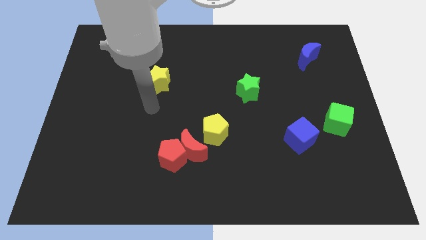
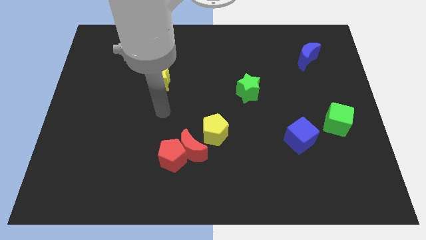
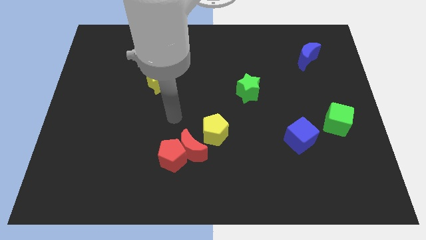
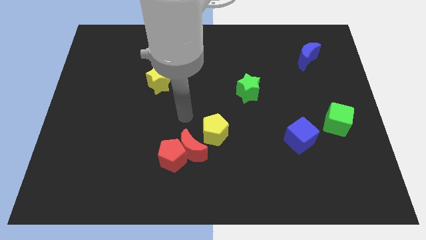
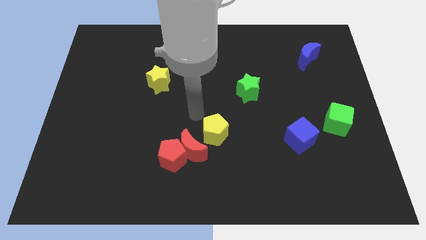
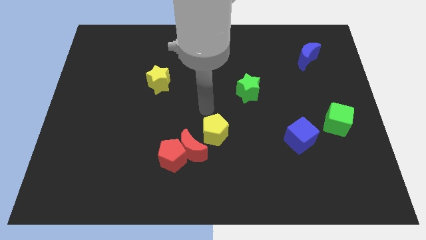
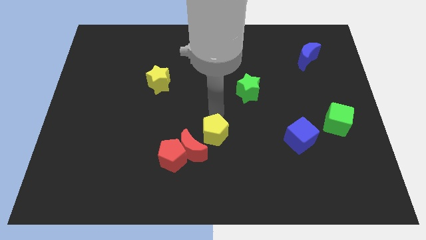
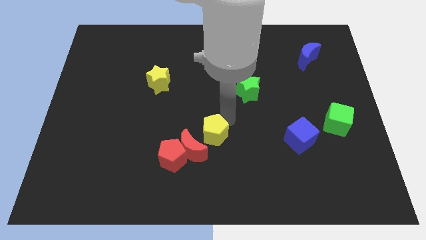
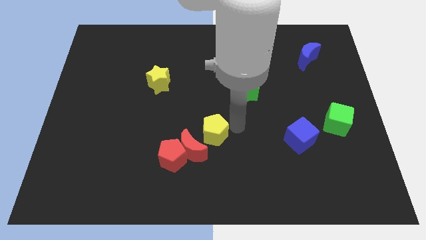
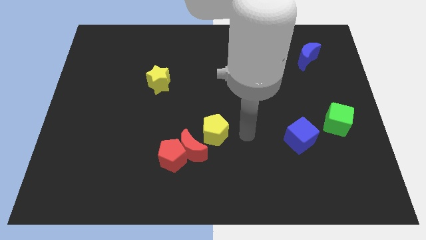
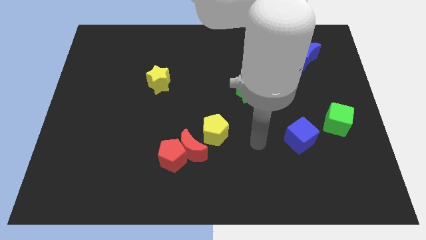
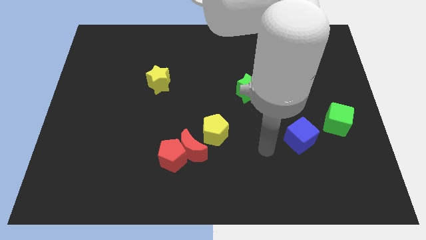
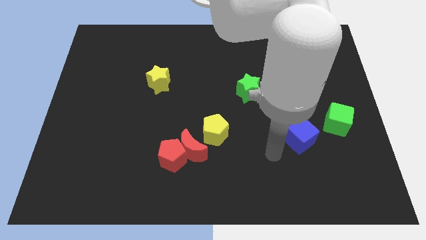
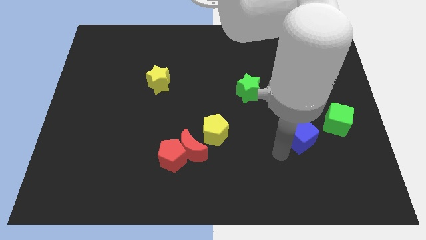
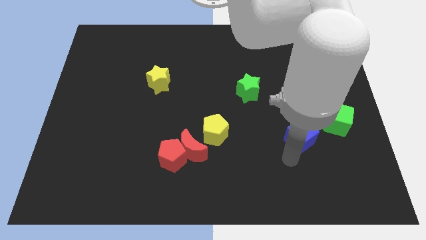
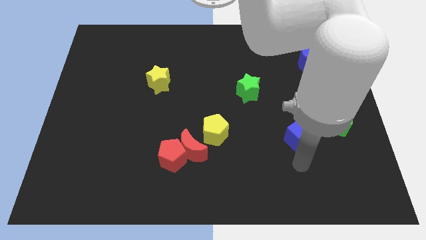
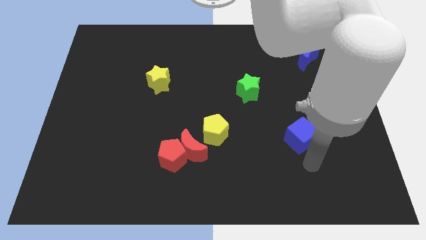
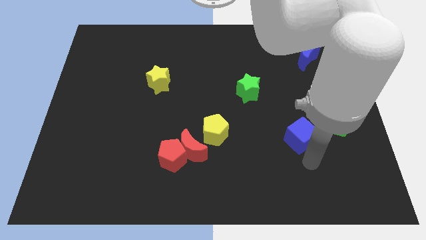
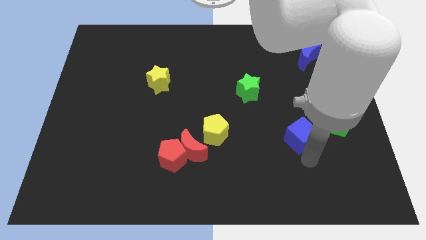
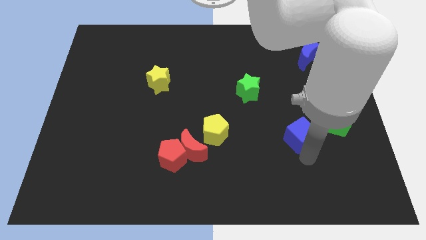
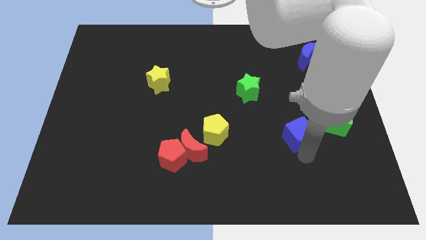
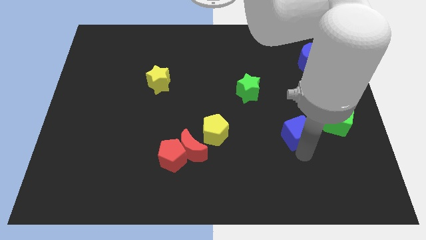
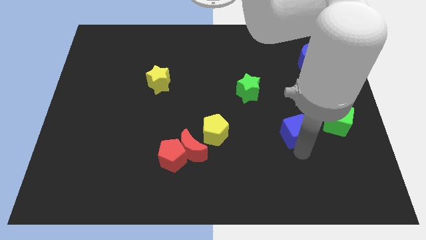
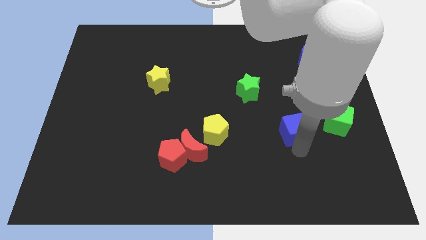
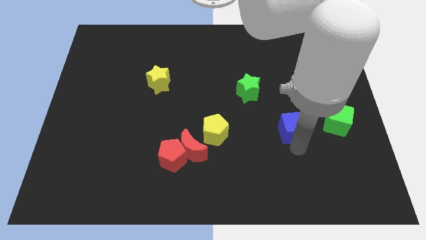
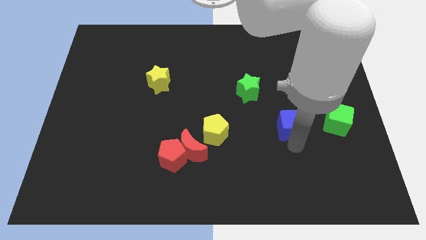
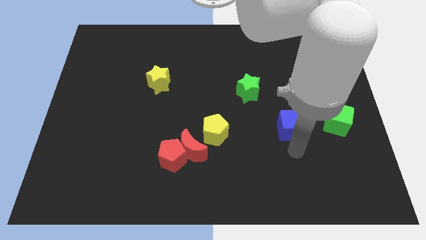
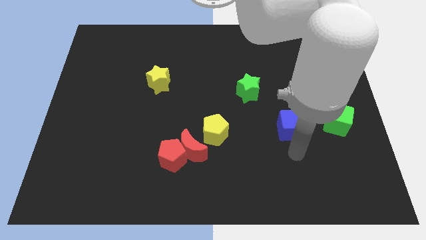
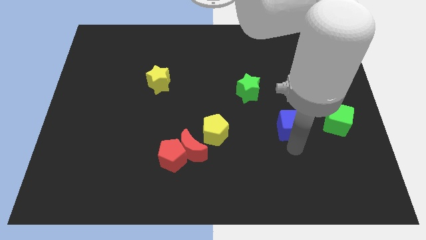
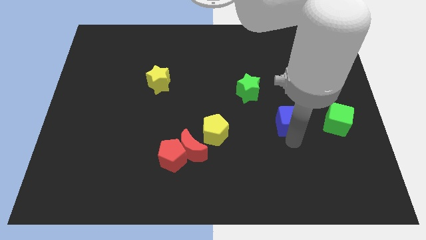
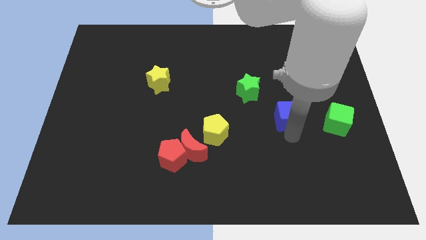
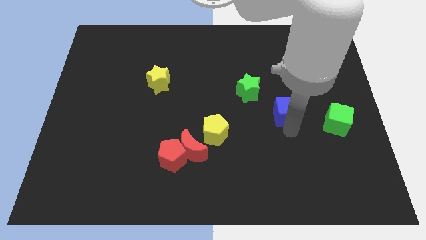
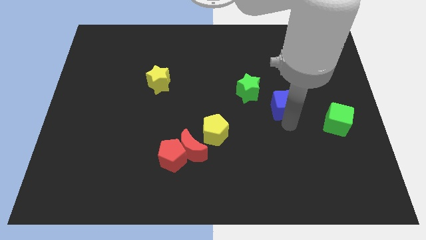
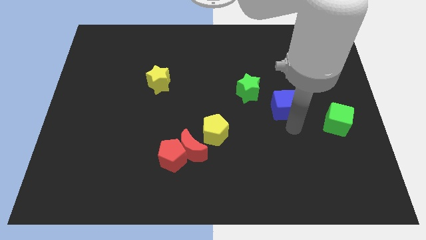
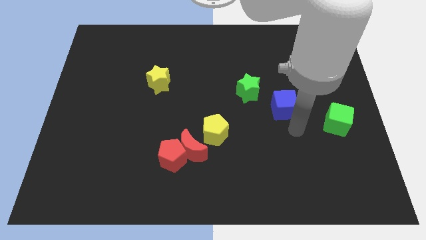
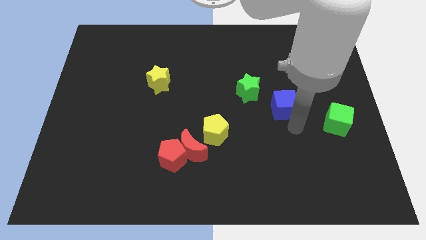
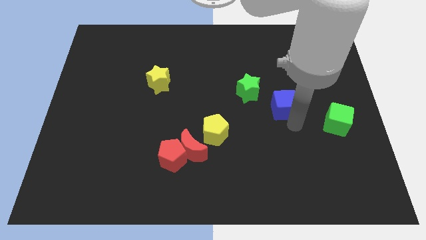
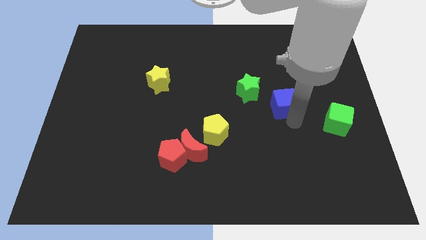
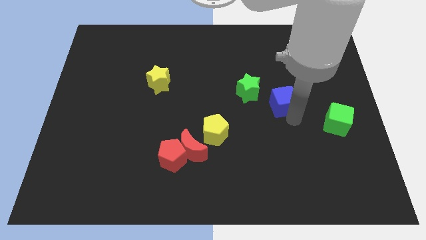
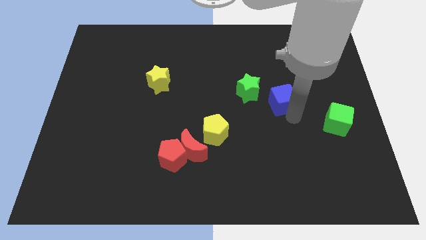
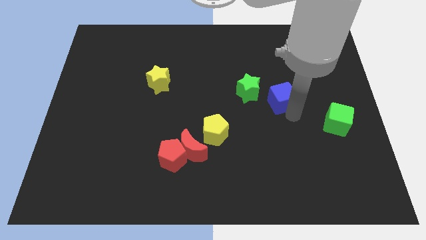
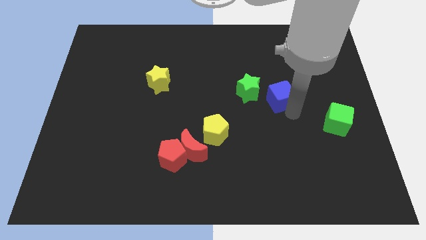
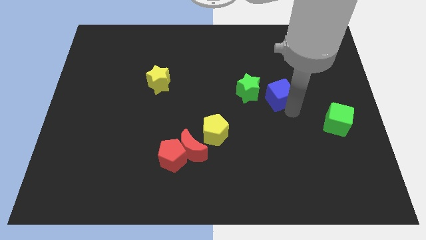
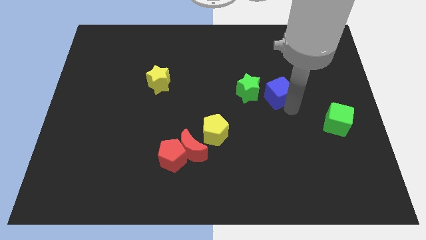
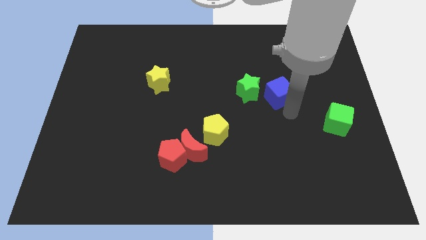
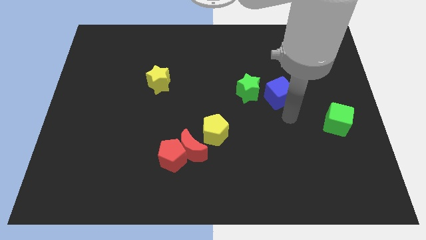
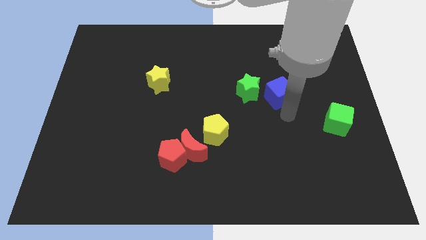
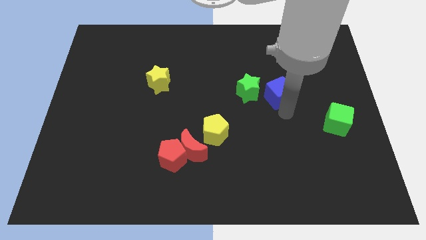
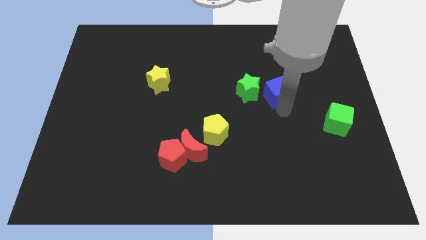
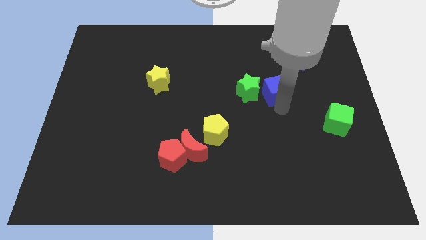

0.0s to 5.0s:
slide the blue cube to the top right of the green star

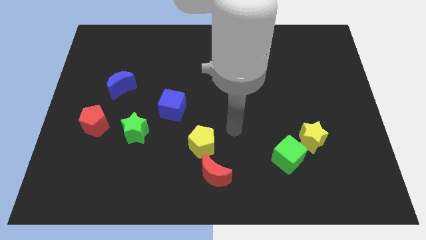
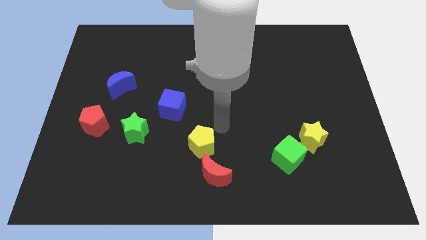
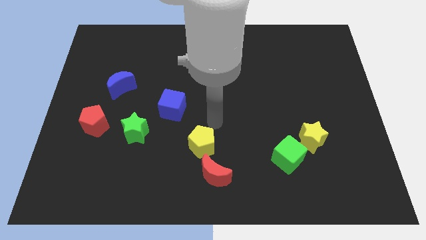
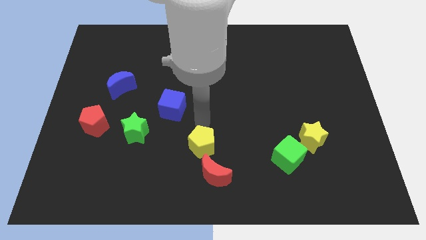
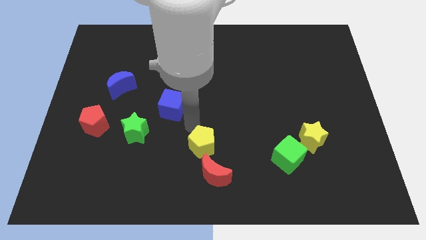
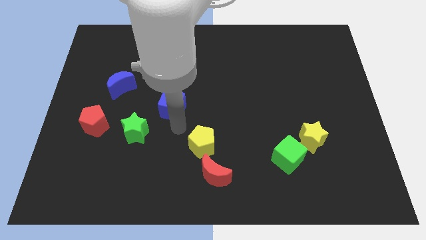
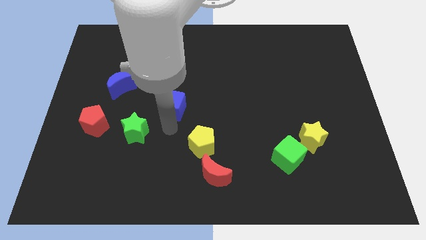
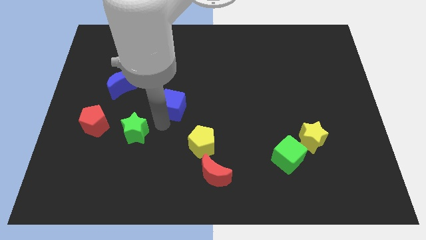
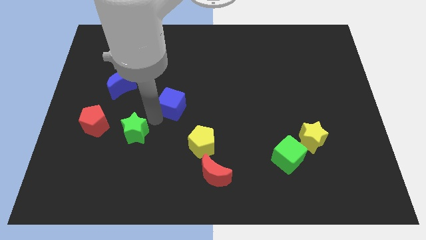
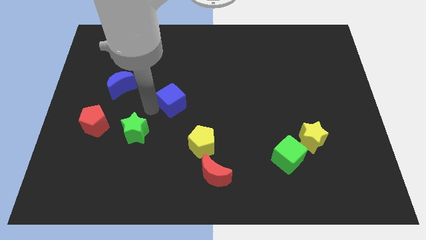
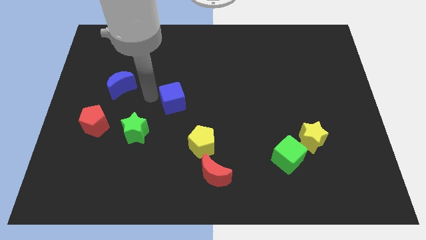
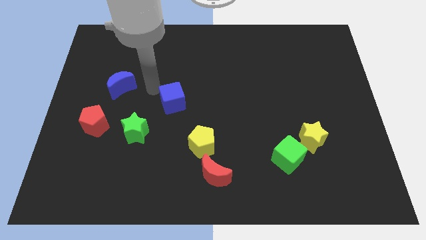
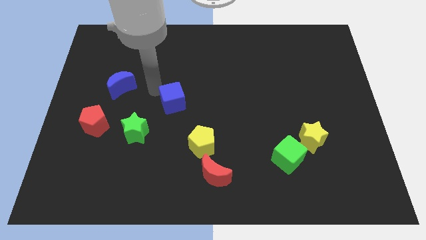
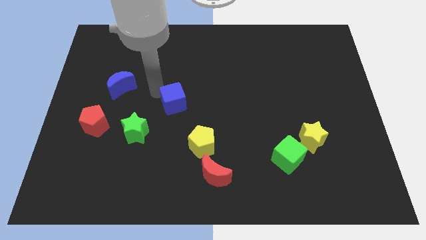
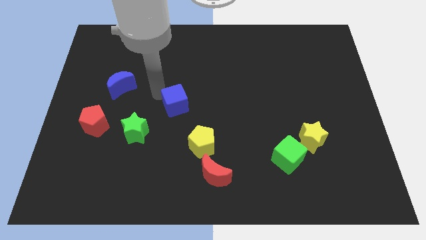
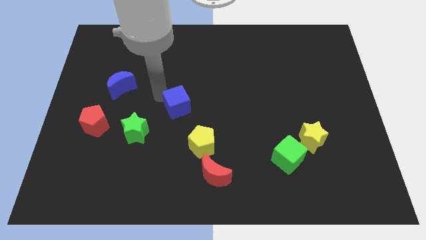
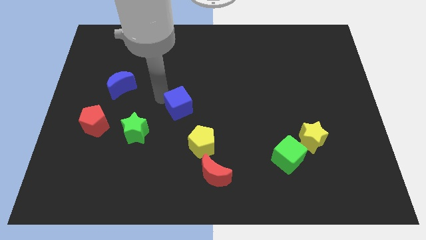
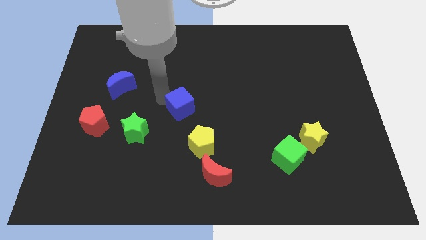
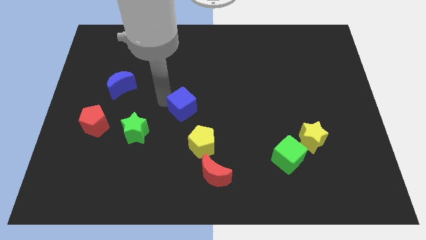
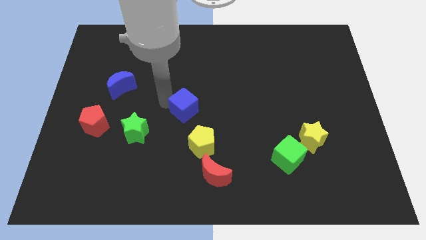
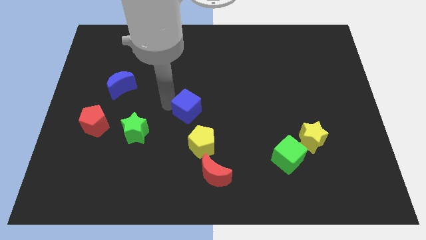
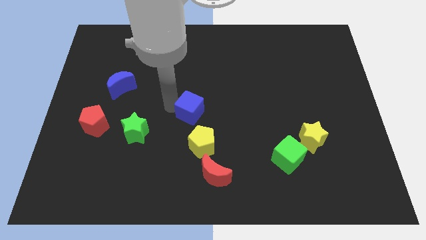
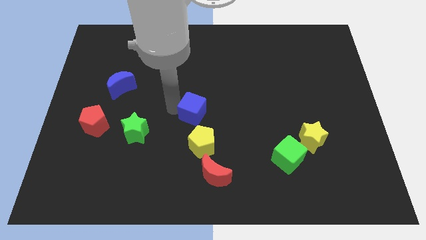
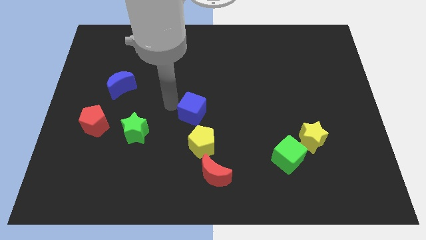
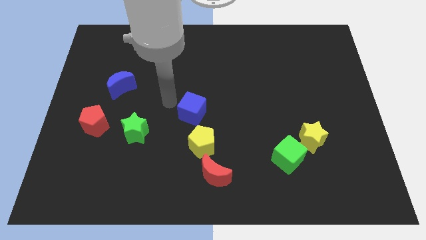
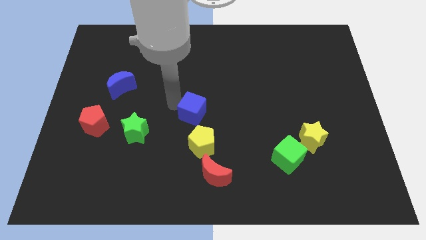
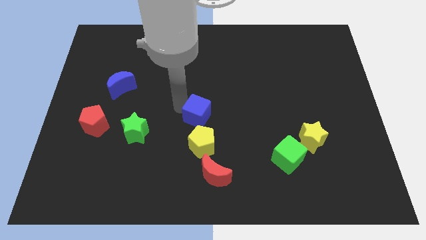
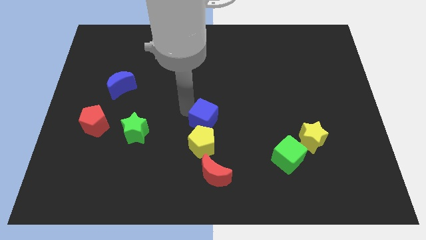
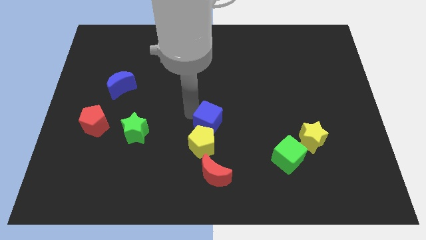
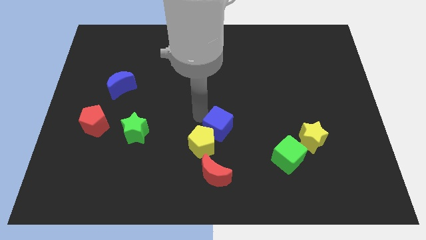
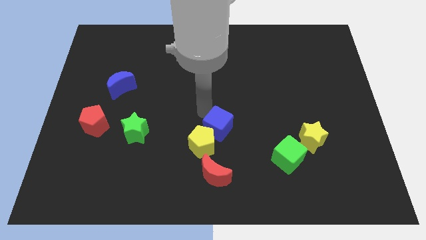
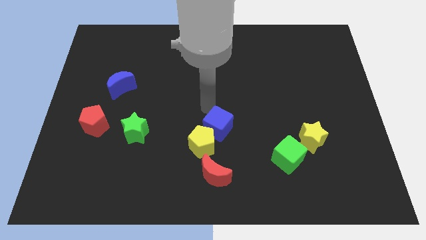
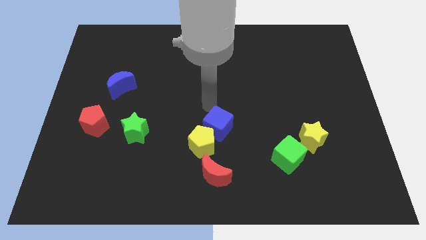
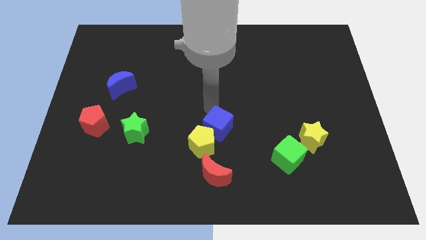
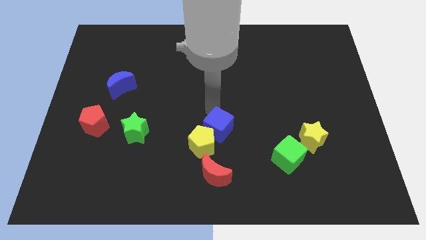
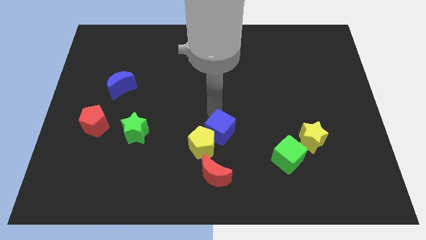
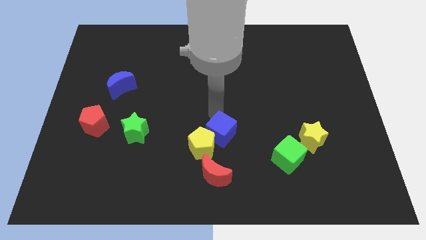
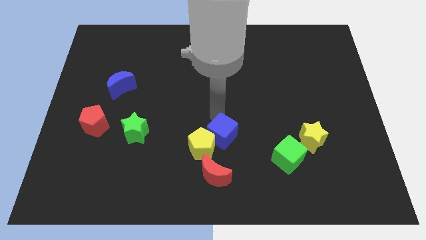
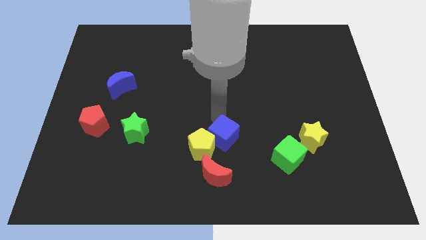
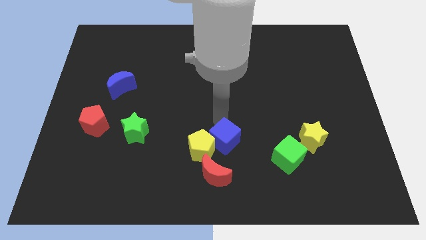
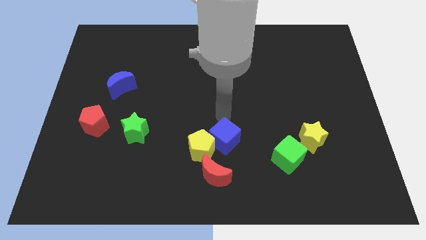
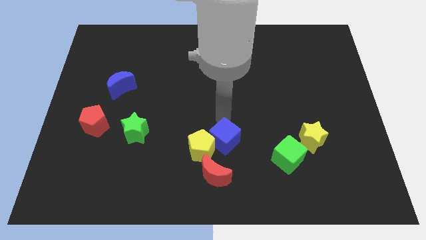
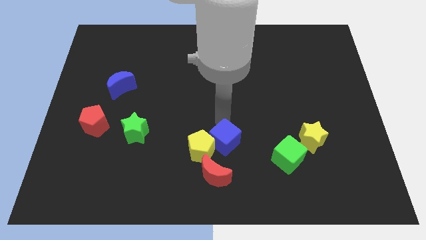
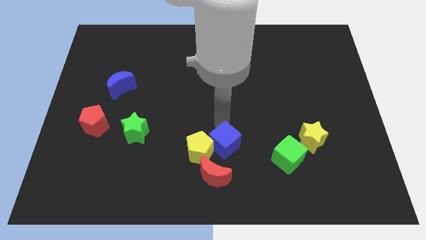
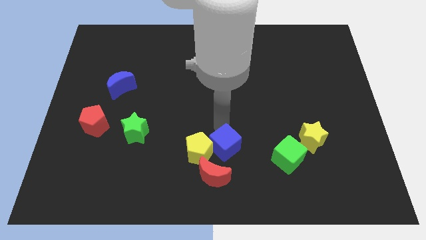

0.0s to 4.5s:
push the blue cube to the bottom right of the yellow pentagon
